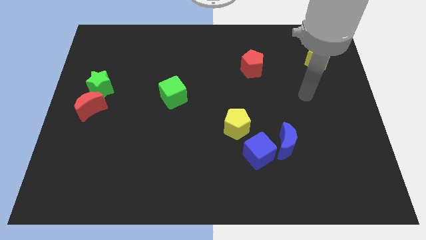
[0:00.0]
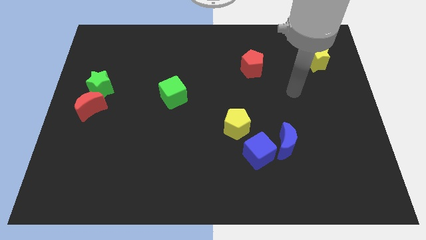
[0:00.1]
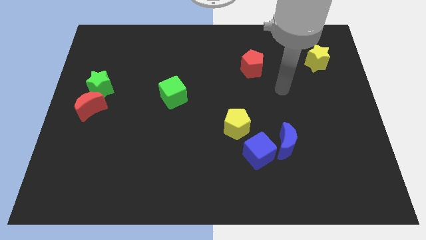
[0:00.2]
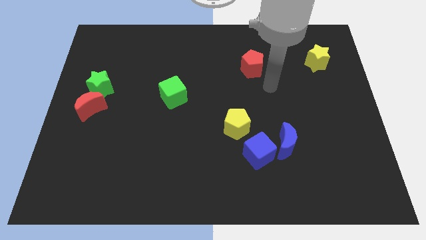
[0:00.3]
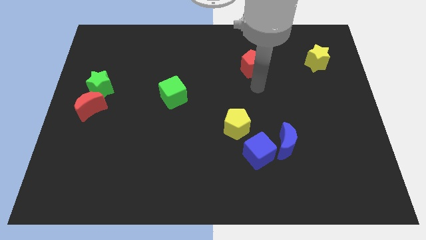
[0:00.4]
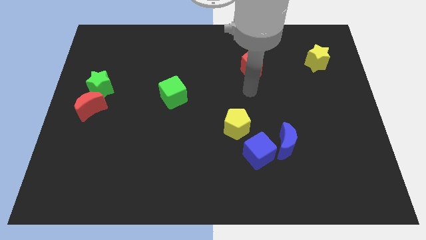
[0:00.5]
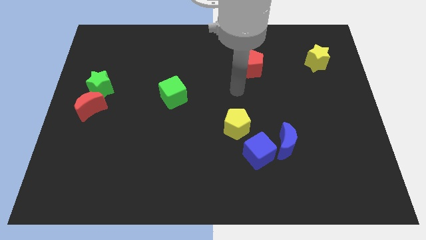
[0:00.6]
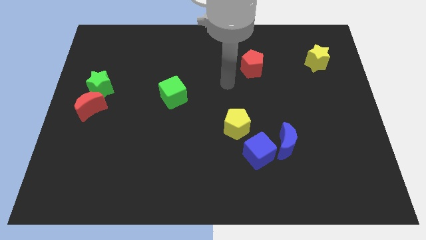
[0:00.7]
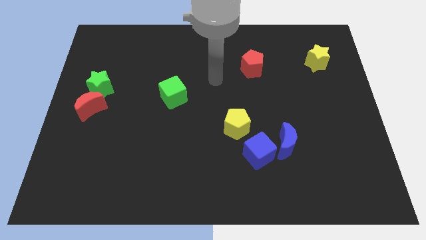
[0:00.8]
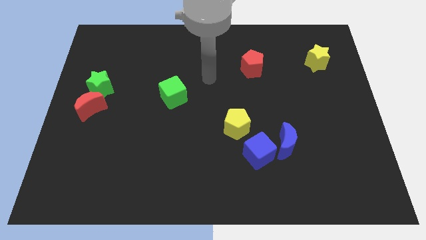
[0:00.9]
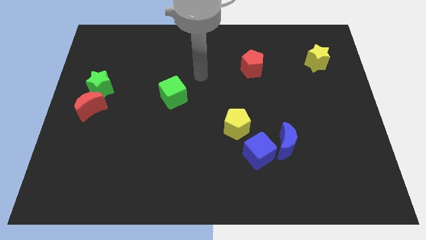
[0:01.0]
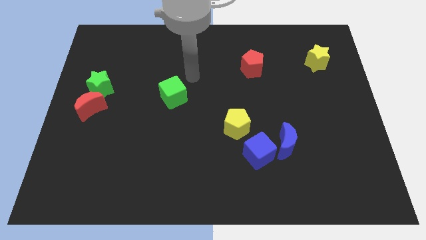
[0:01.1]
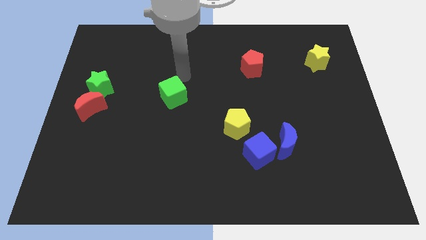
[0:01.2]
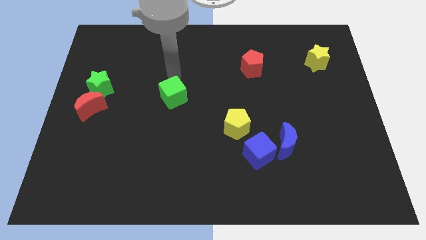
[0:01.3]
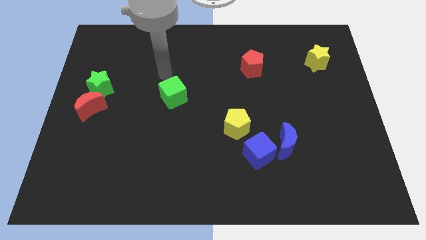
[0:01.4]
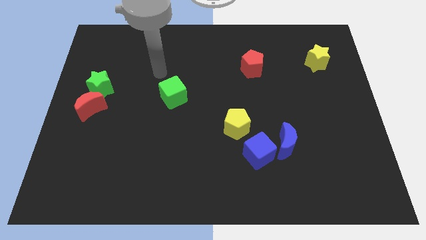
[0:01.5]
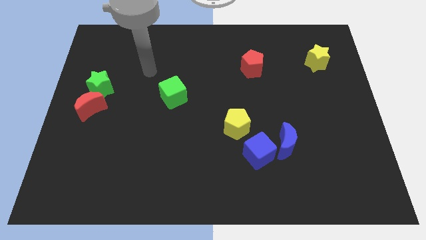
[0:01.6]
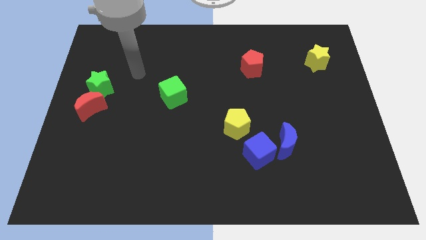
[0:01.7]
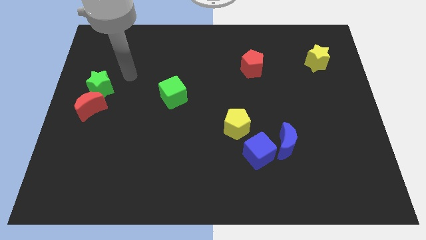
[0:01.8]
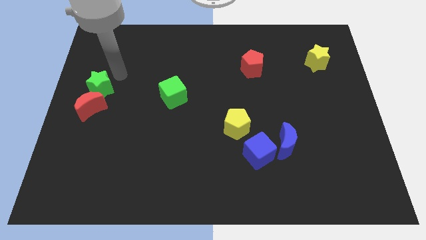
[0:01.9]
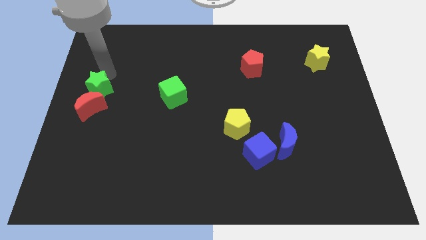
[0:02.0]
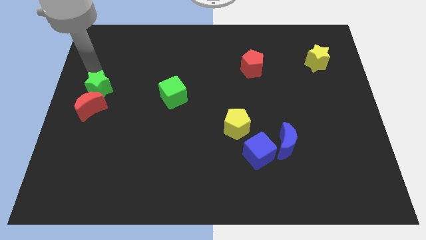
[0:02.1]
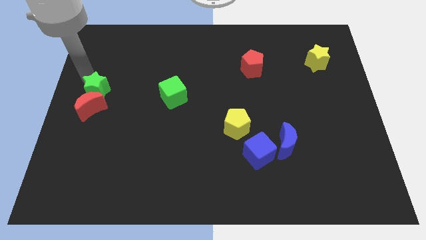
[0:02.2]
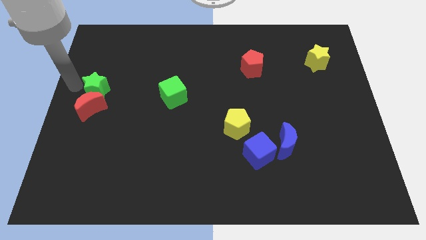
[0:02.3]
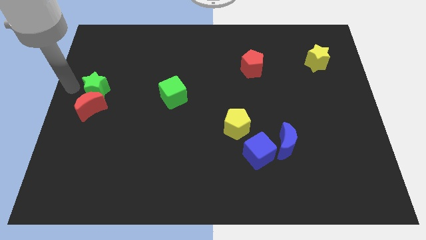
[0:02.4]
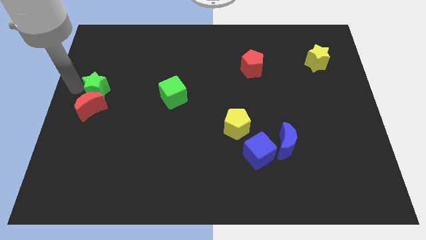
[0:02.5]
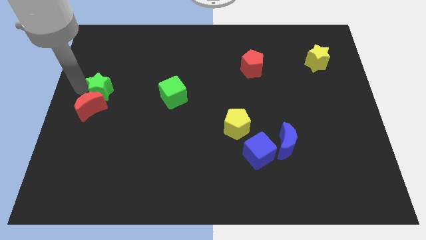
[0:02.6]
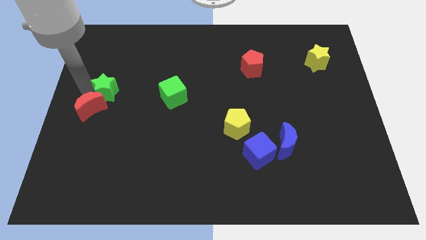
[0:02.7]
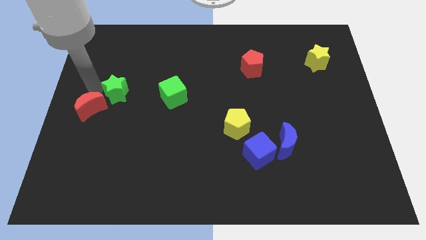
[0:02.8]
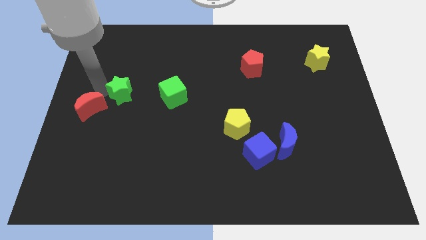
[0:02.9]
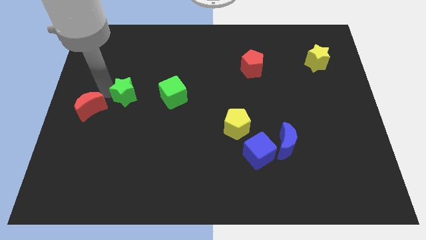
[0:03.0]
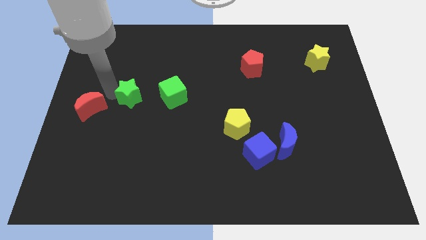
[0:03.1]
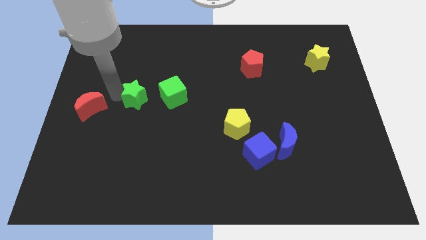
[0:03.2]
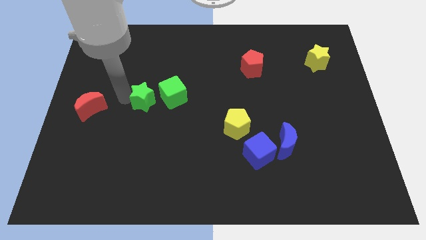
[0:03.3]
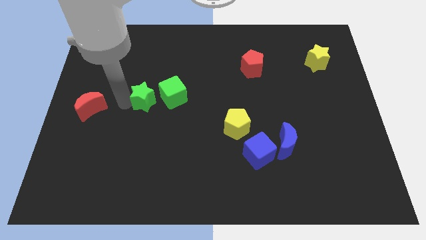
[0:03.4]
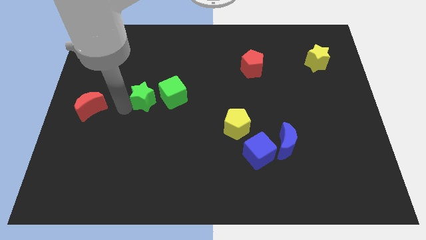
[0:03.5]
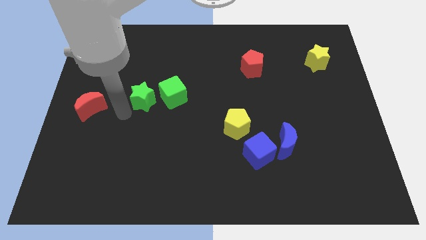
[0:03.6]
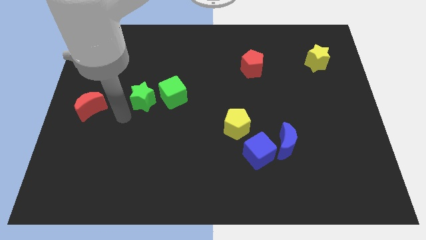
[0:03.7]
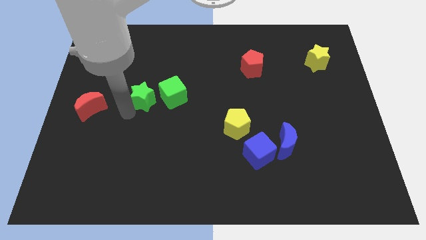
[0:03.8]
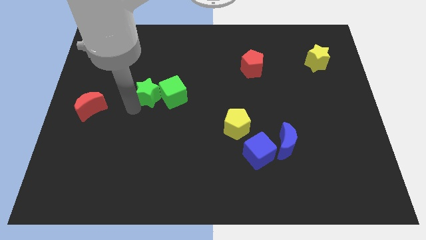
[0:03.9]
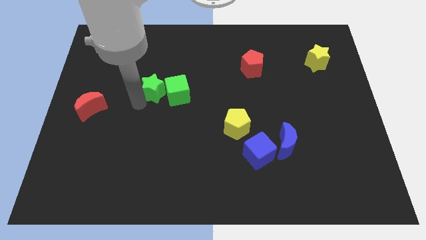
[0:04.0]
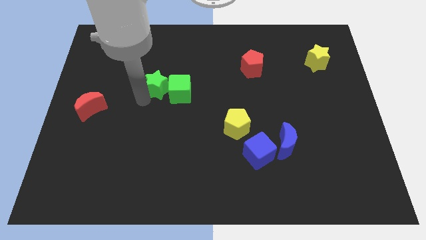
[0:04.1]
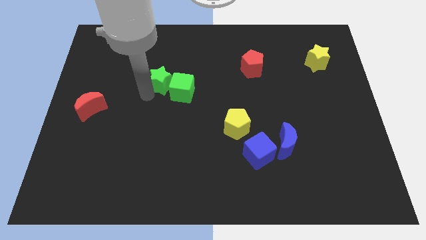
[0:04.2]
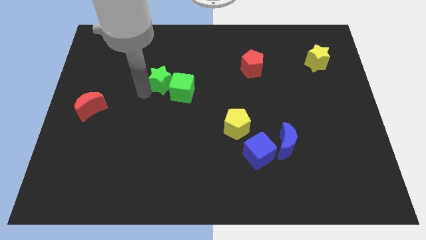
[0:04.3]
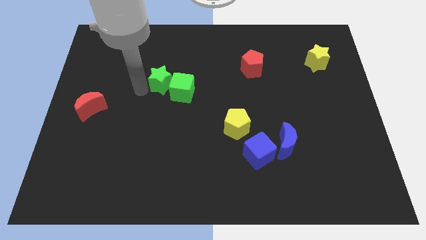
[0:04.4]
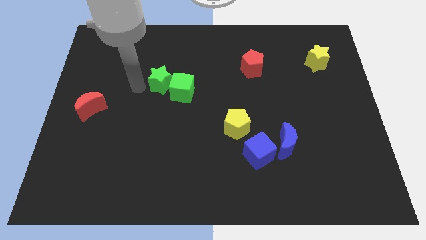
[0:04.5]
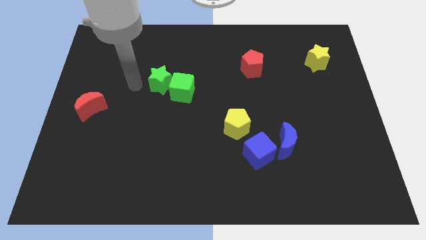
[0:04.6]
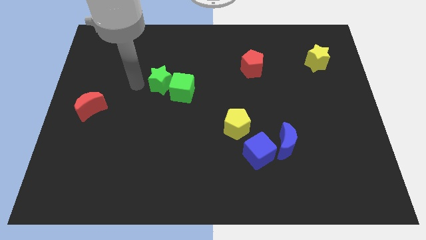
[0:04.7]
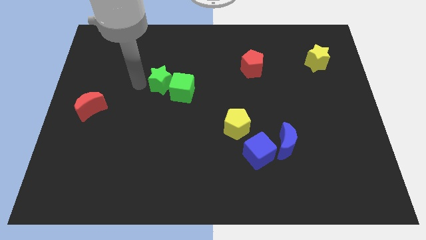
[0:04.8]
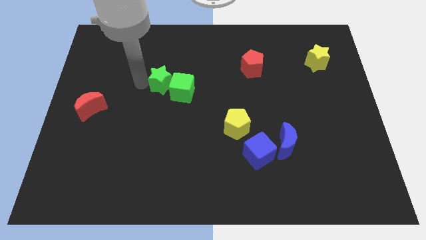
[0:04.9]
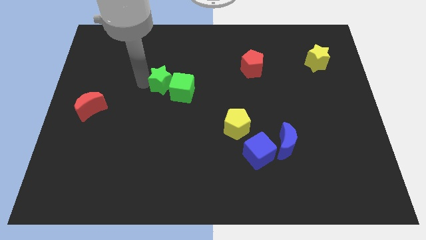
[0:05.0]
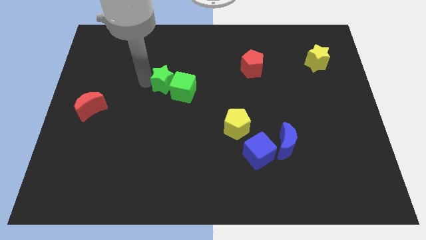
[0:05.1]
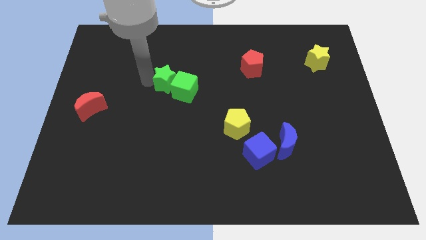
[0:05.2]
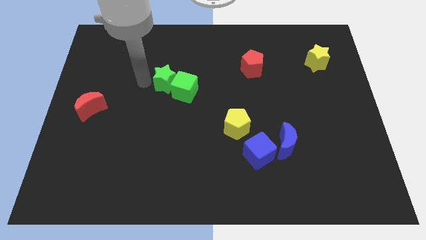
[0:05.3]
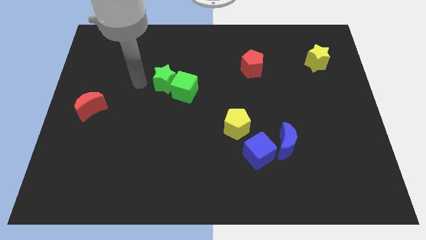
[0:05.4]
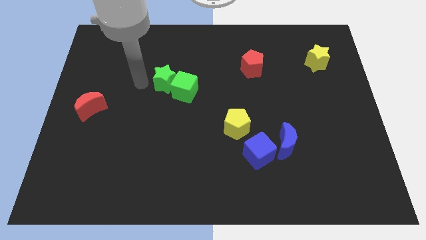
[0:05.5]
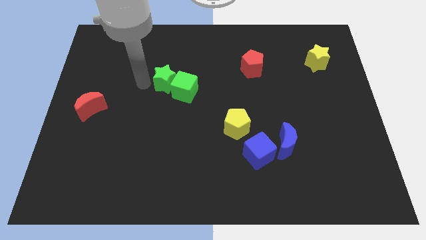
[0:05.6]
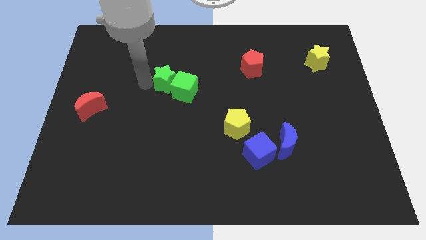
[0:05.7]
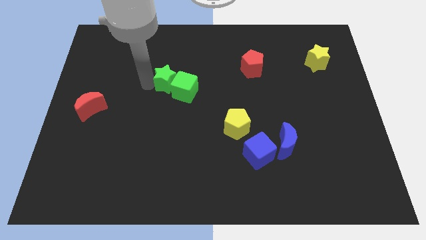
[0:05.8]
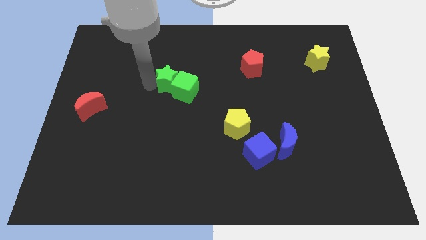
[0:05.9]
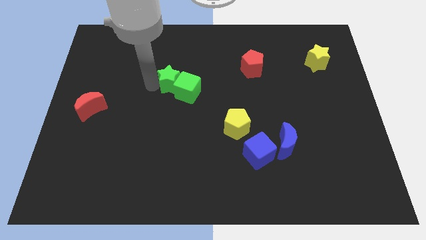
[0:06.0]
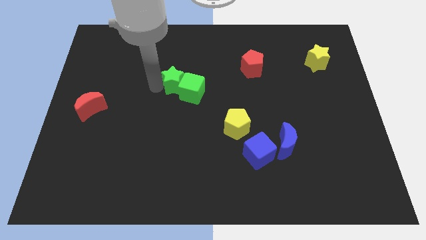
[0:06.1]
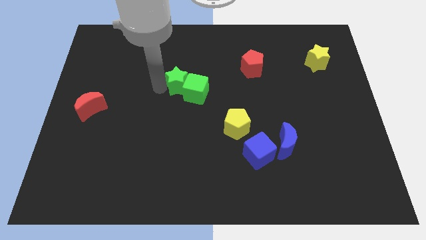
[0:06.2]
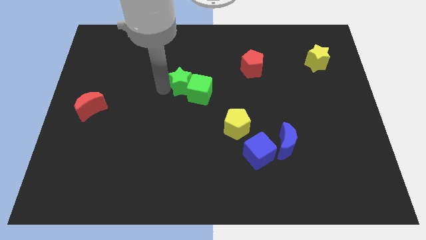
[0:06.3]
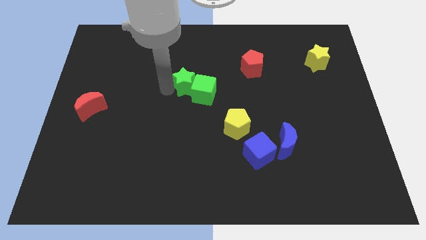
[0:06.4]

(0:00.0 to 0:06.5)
move the green star to the right

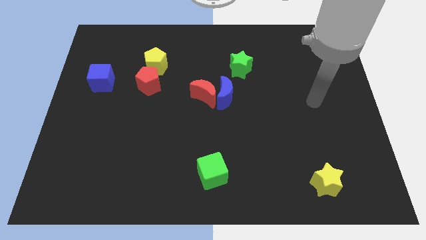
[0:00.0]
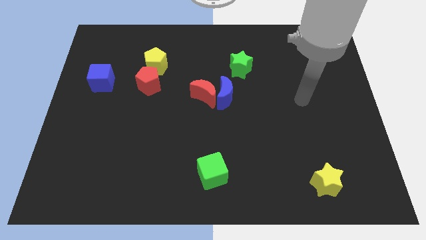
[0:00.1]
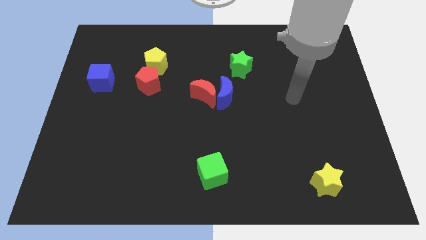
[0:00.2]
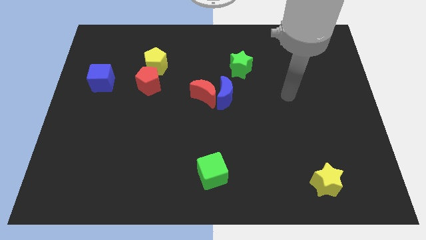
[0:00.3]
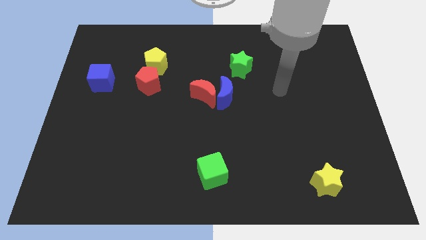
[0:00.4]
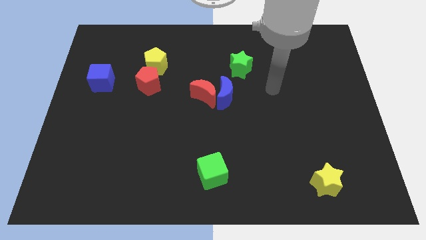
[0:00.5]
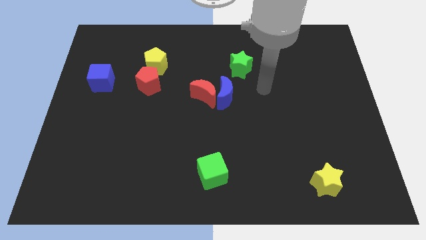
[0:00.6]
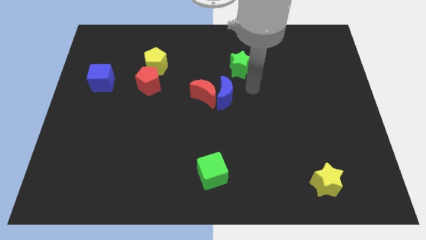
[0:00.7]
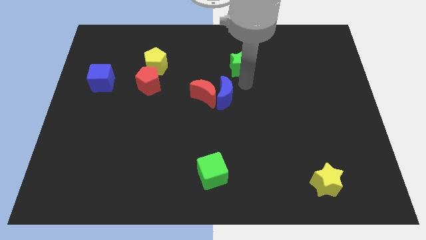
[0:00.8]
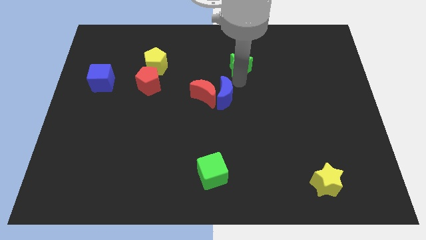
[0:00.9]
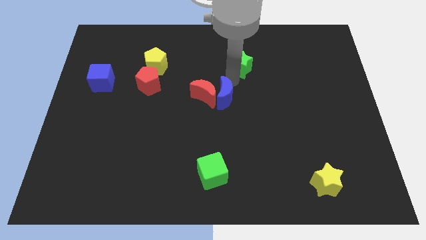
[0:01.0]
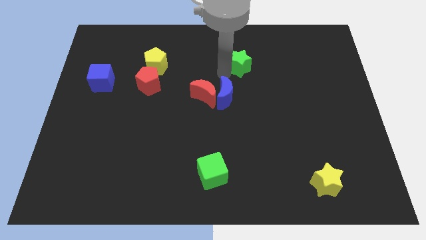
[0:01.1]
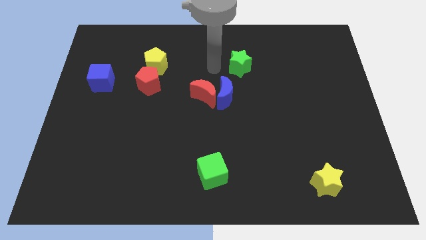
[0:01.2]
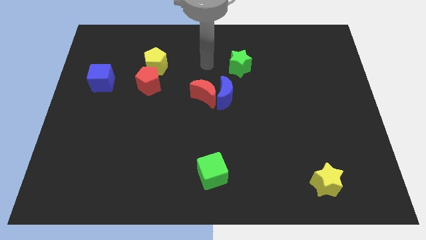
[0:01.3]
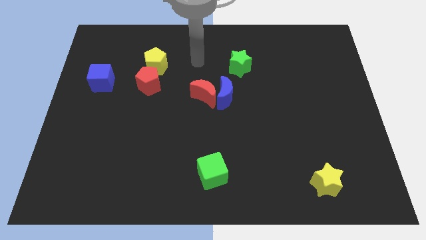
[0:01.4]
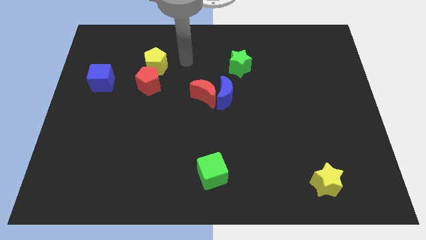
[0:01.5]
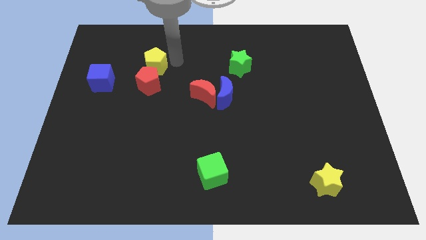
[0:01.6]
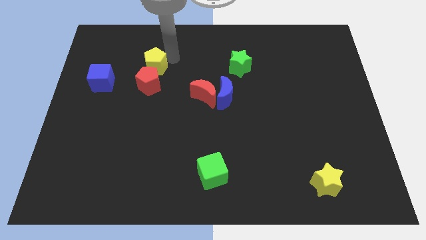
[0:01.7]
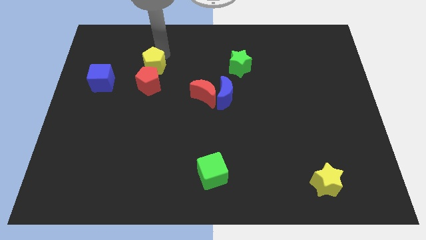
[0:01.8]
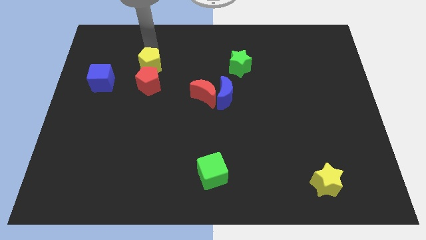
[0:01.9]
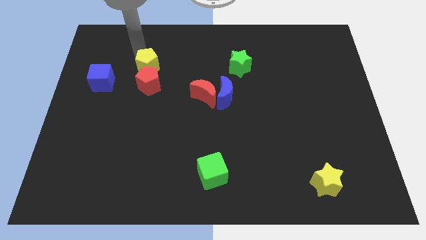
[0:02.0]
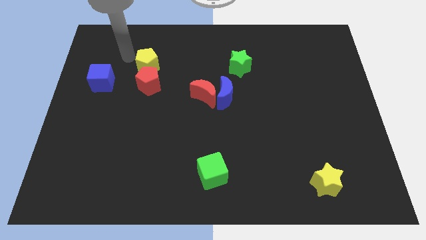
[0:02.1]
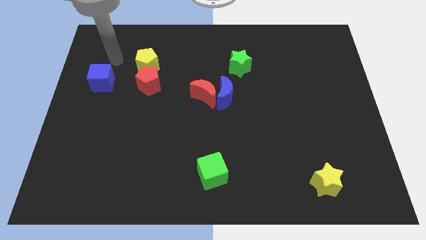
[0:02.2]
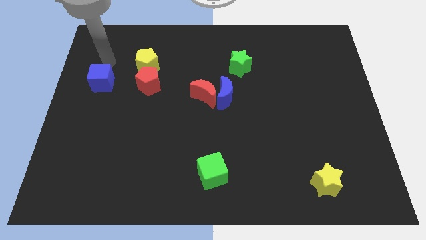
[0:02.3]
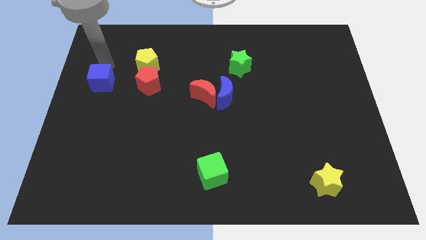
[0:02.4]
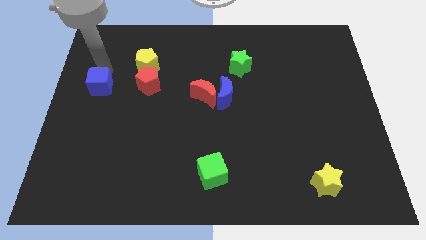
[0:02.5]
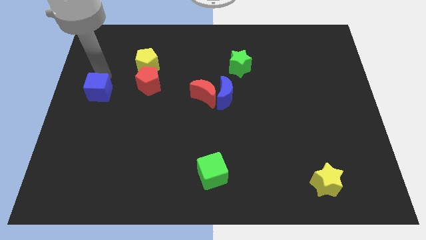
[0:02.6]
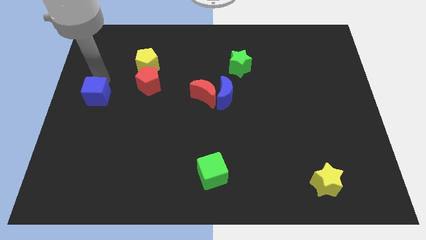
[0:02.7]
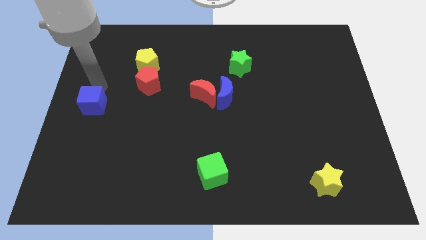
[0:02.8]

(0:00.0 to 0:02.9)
move the blue cube a little down
